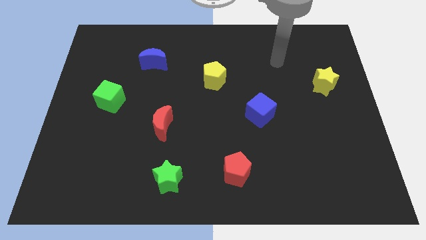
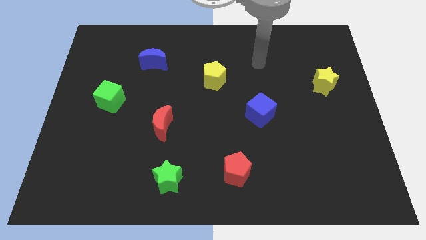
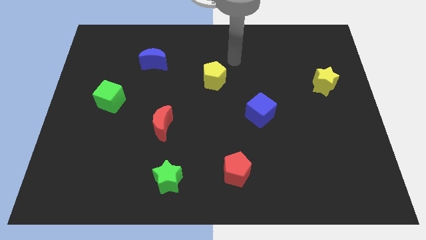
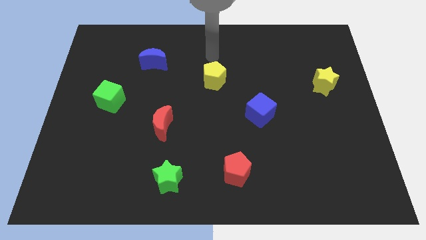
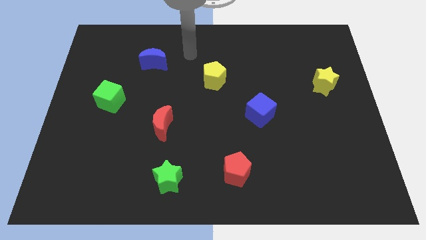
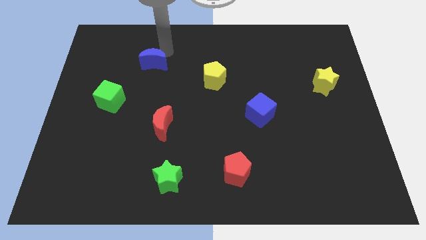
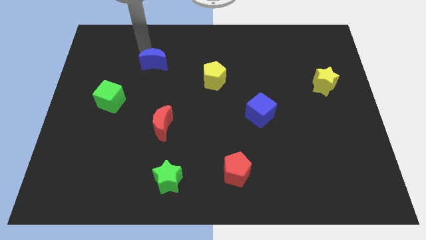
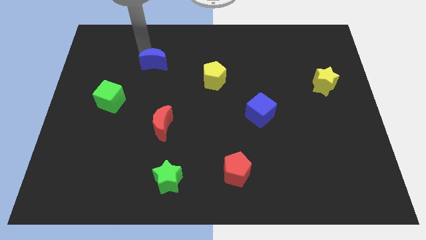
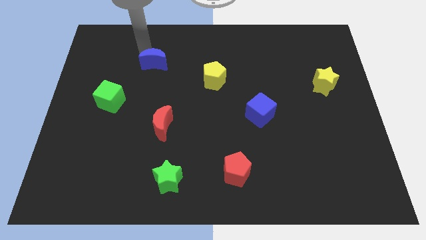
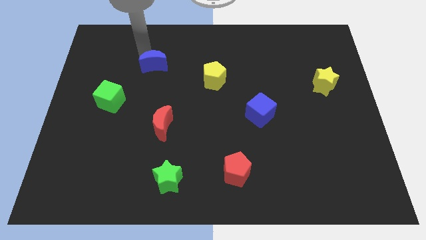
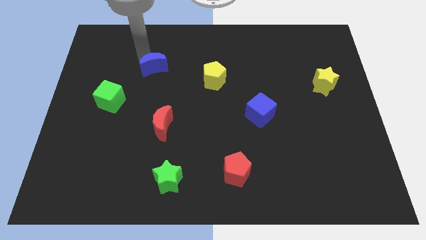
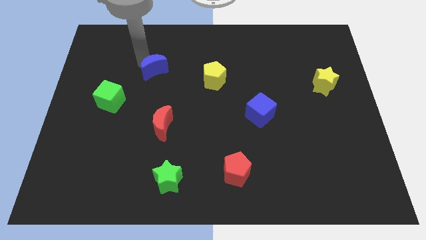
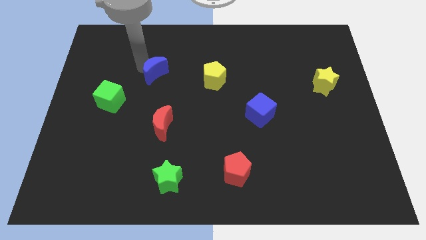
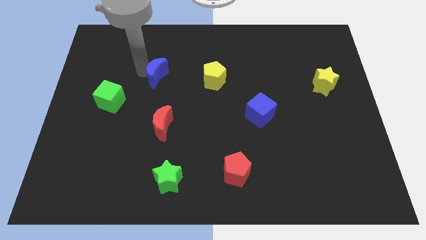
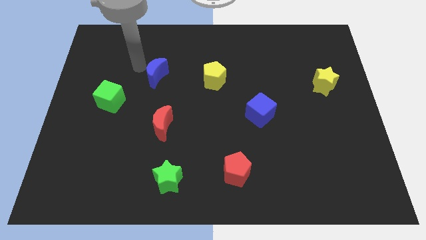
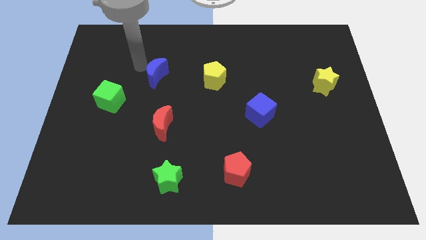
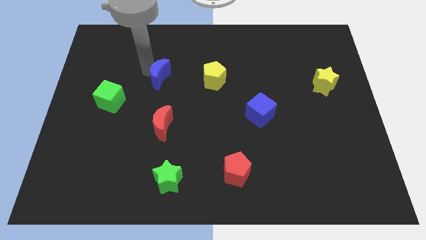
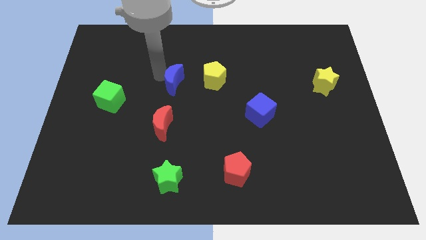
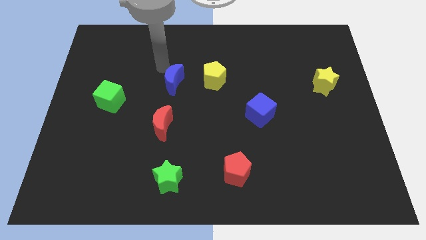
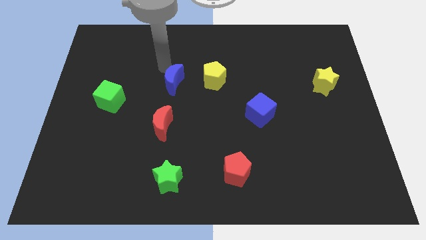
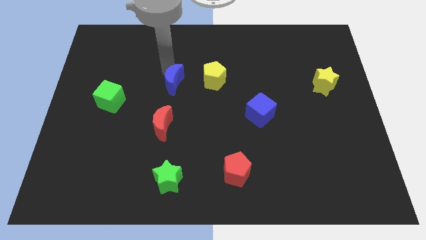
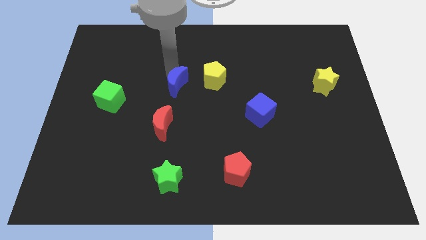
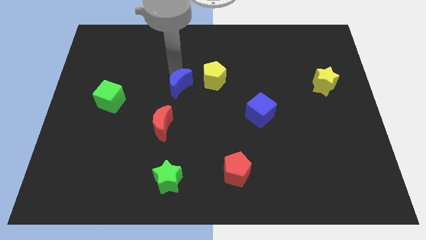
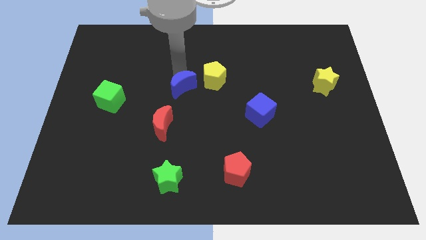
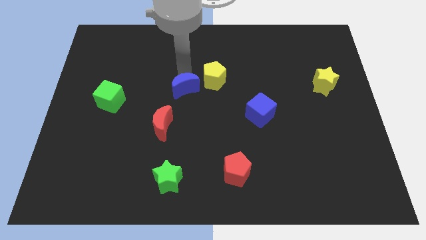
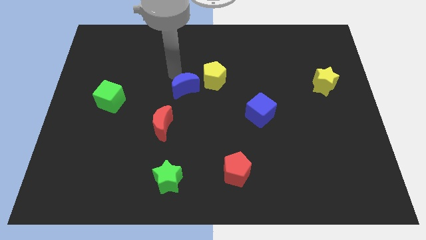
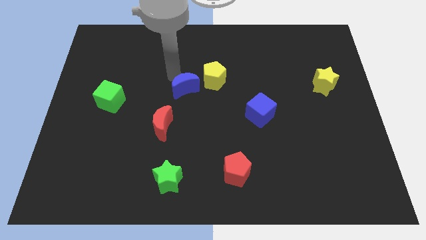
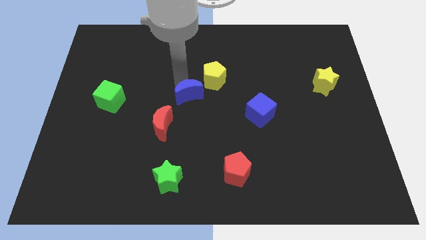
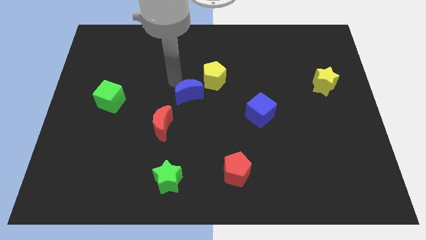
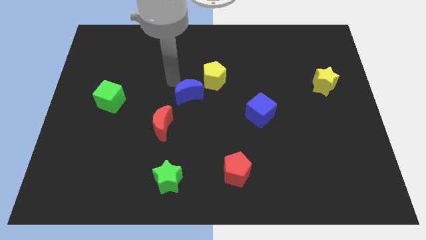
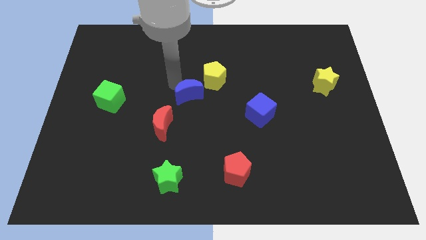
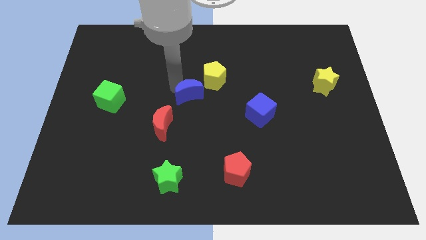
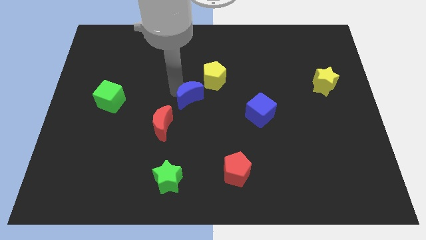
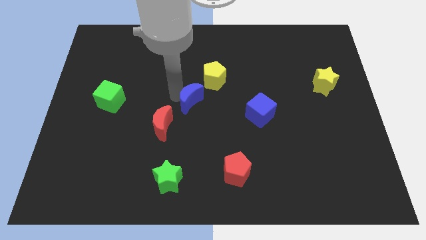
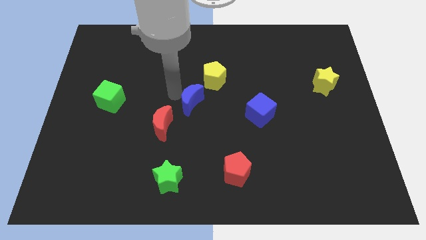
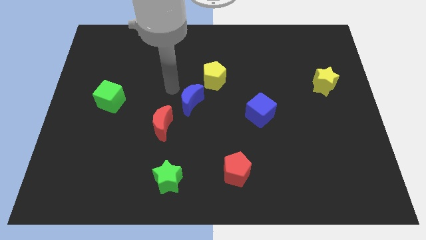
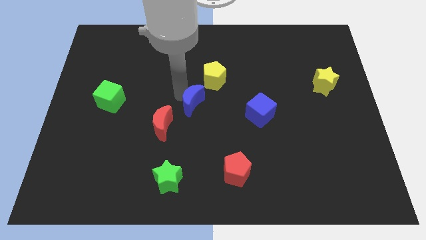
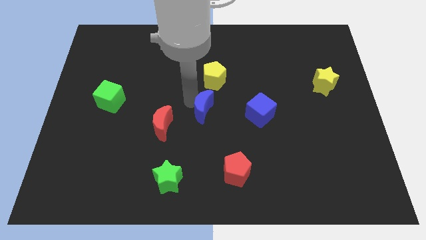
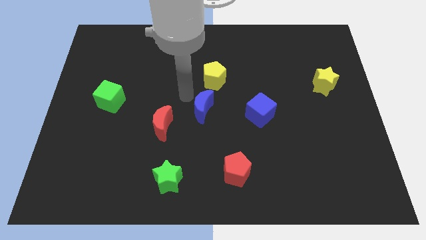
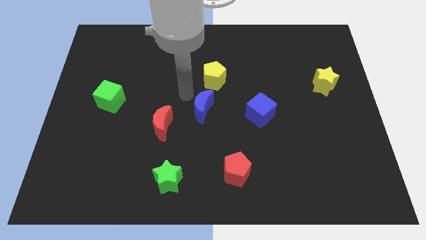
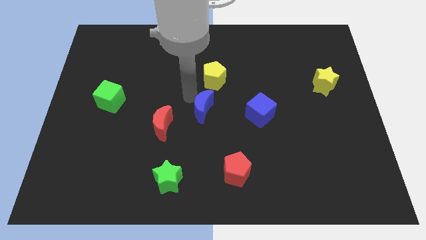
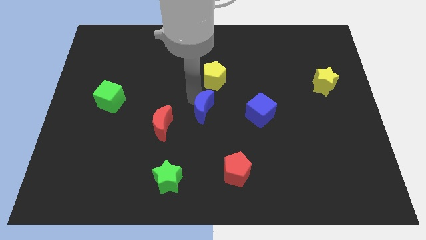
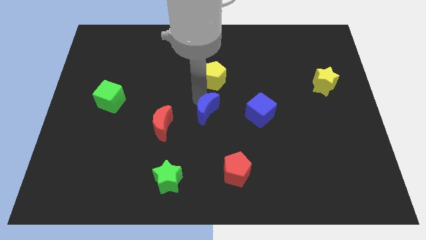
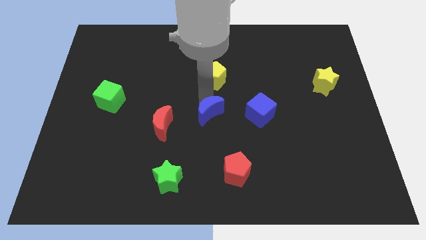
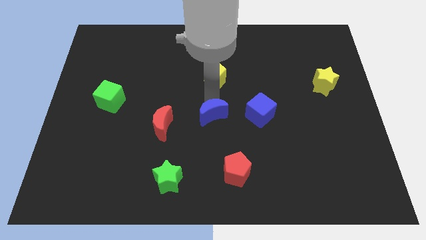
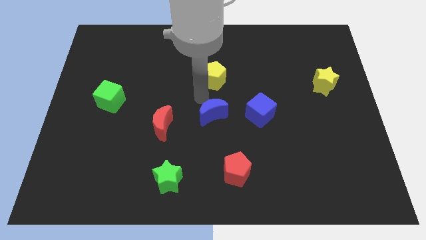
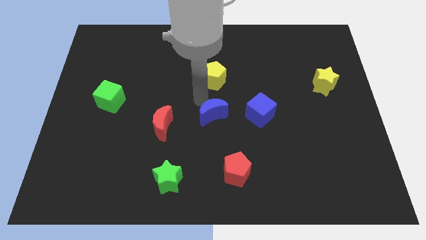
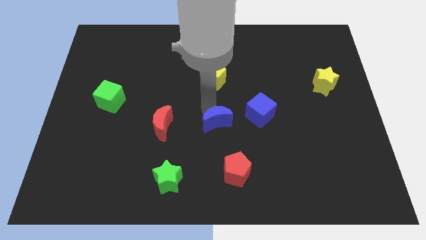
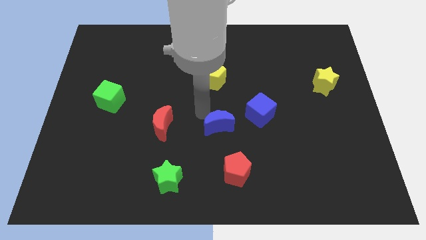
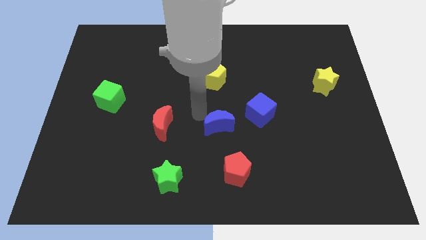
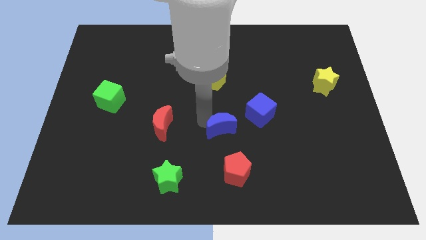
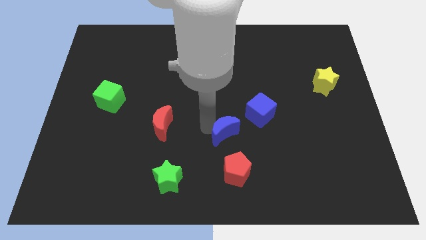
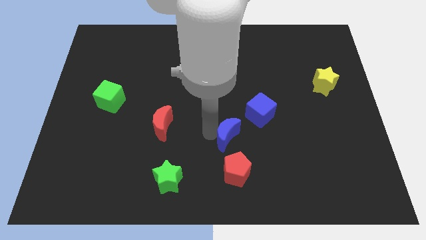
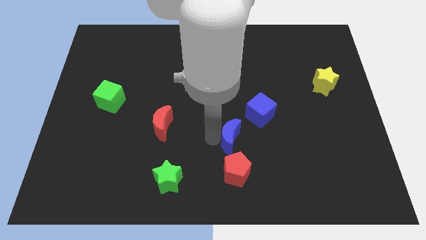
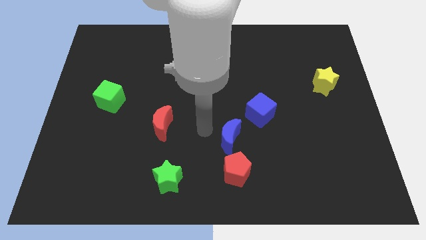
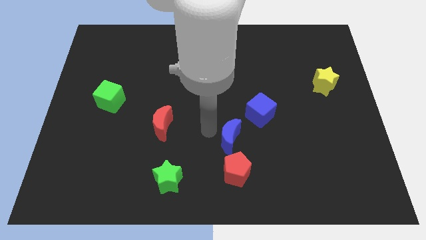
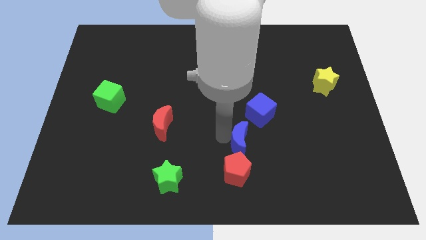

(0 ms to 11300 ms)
put the blue moon to the top right side of the red pentagon

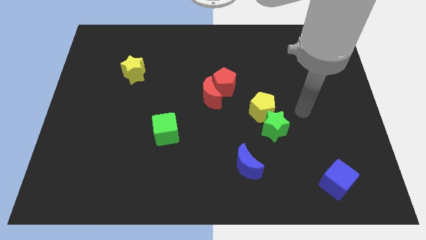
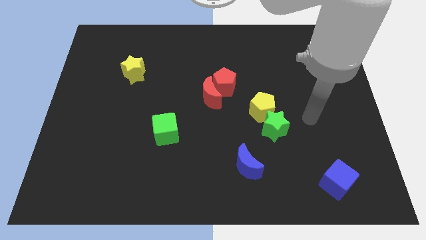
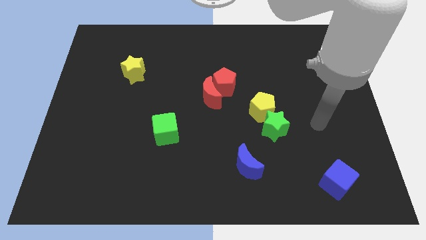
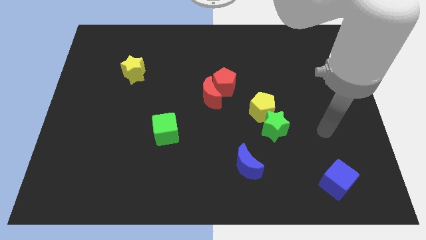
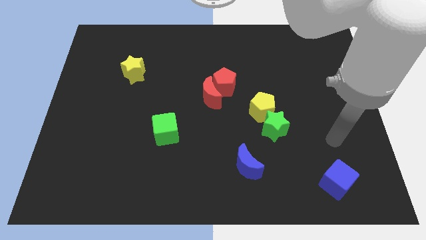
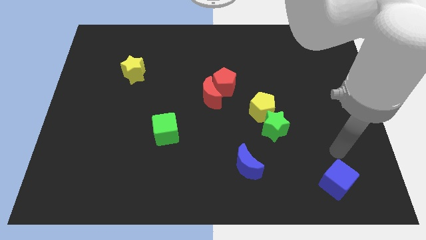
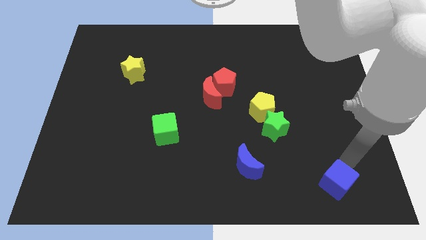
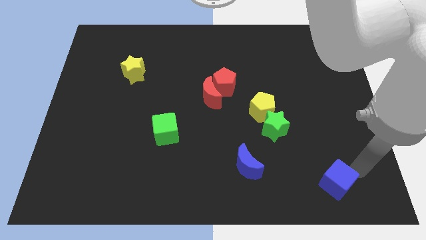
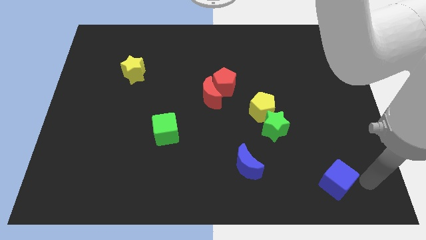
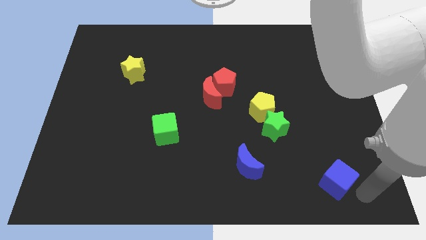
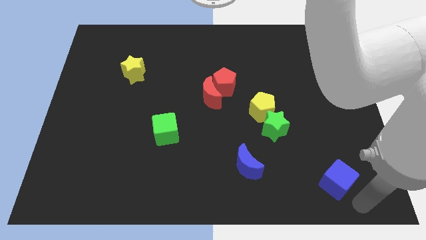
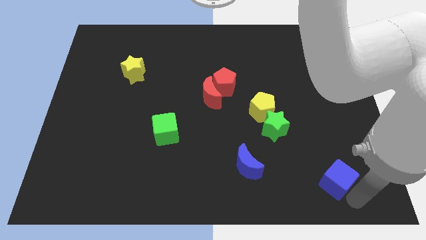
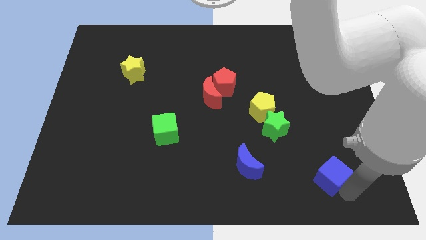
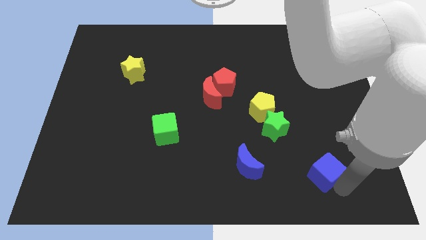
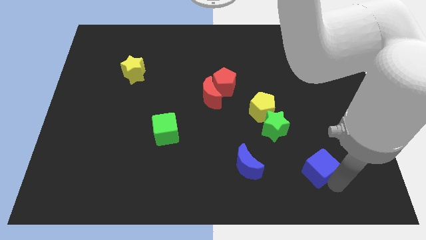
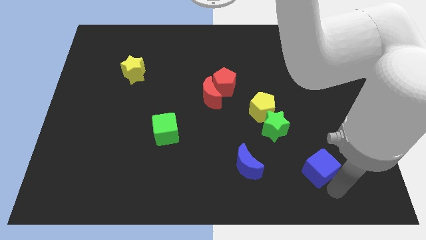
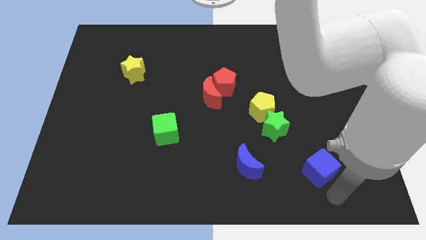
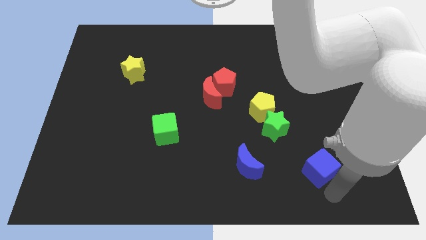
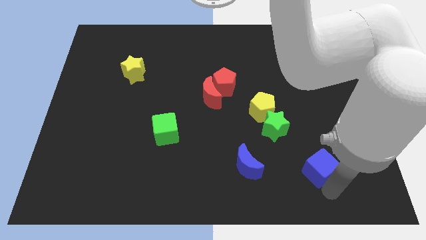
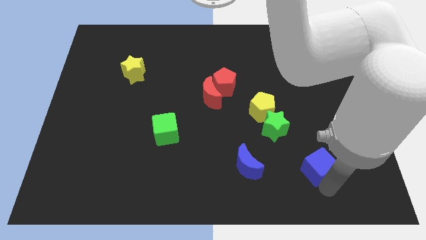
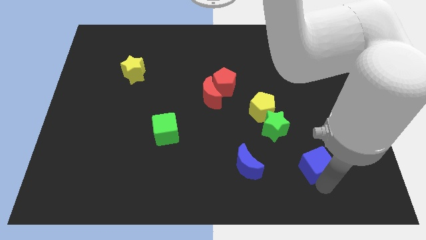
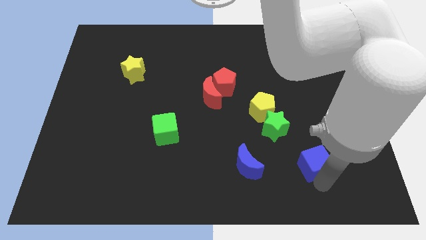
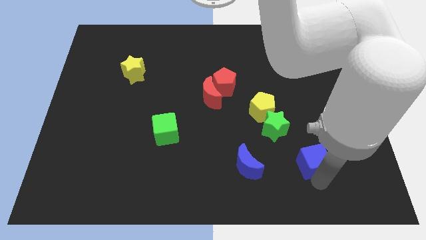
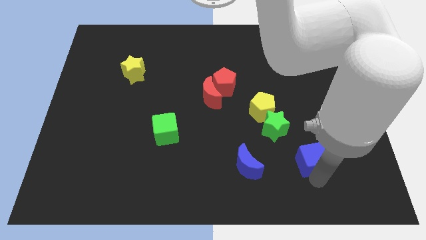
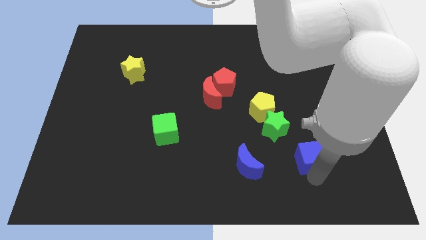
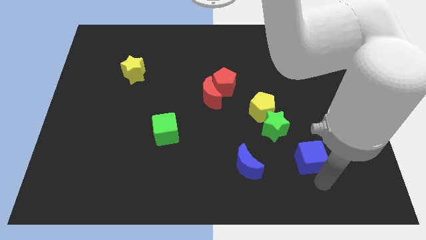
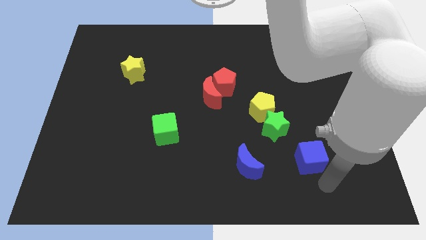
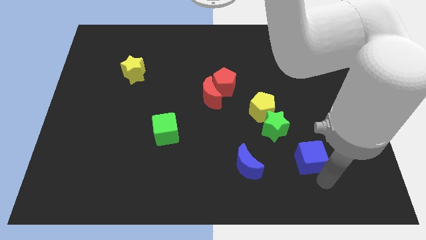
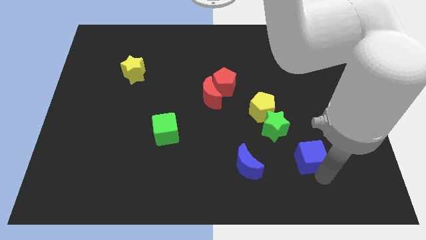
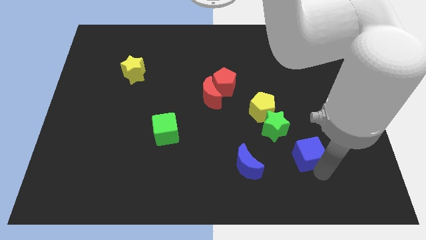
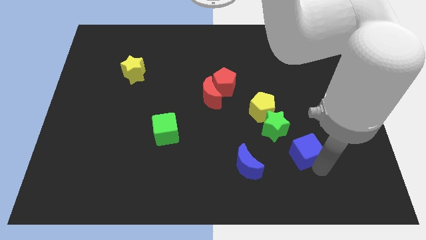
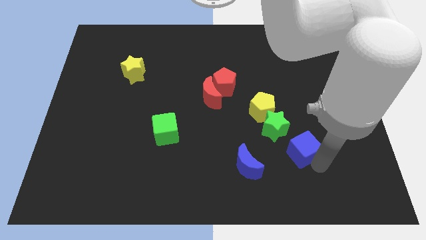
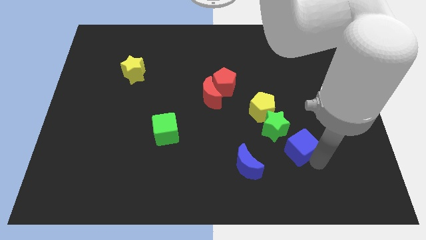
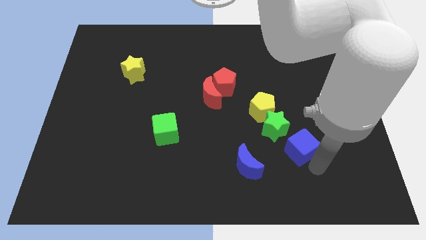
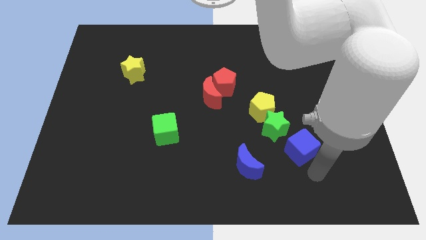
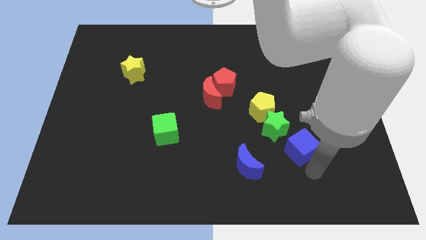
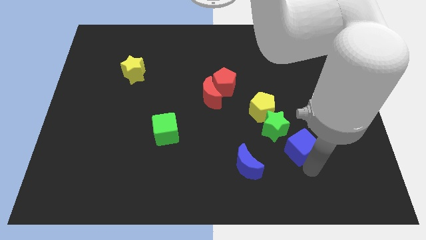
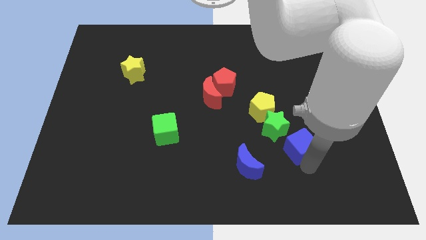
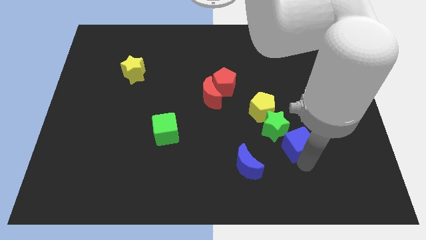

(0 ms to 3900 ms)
move the blue cube to the bottom right of the yellow pentagon
